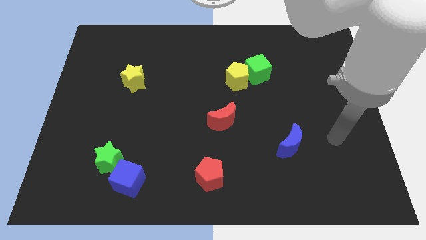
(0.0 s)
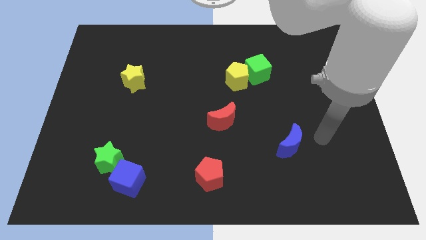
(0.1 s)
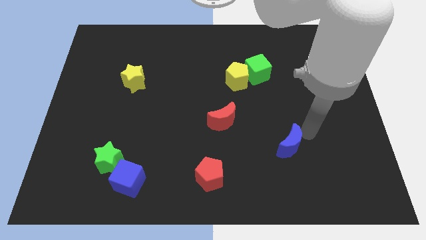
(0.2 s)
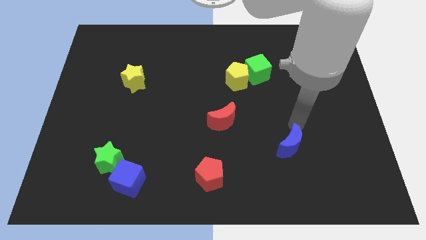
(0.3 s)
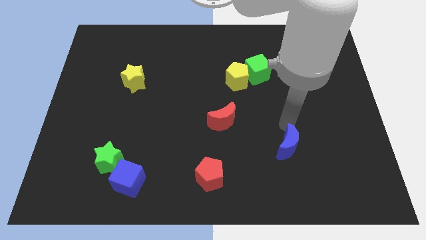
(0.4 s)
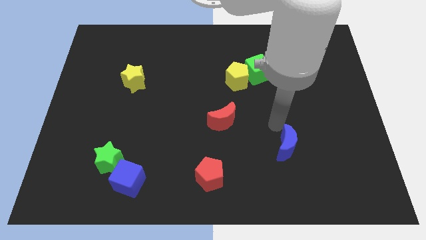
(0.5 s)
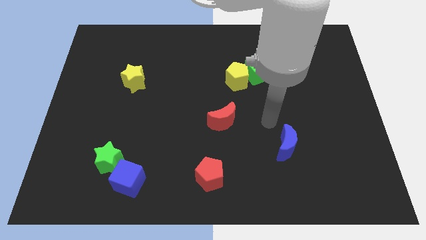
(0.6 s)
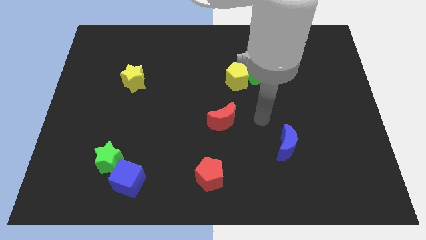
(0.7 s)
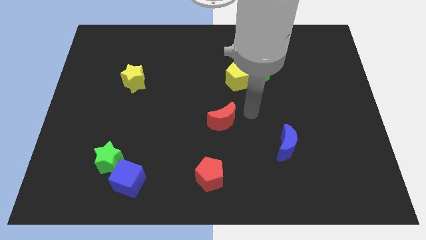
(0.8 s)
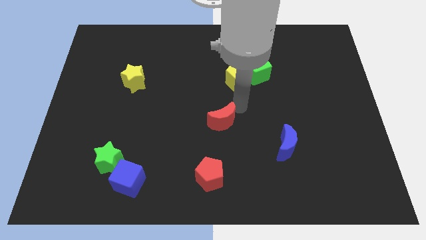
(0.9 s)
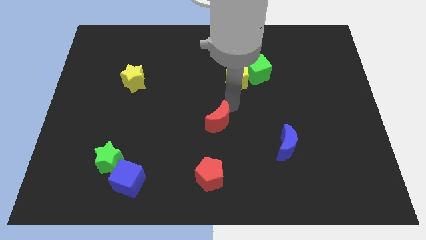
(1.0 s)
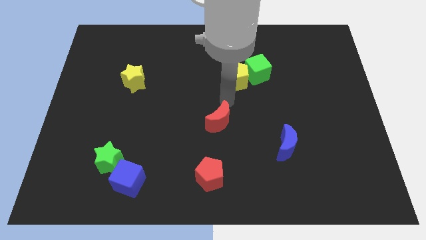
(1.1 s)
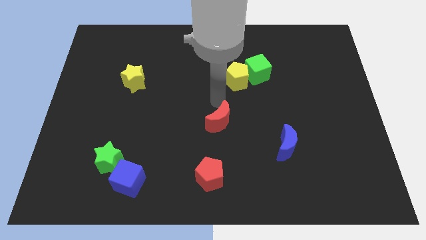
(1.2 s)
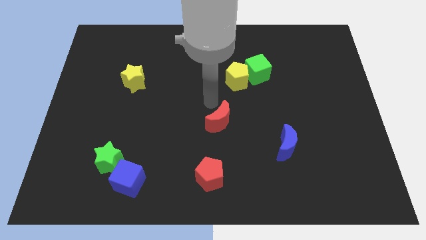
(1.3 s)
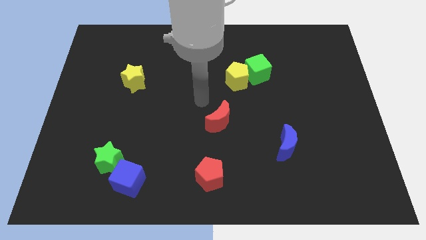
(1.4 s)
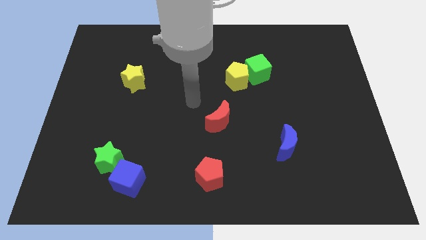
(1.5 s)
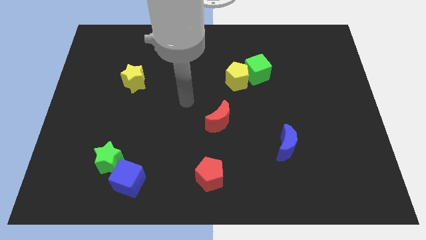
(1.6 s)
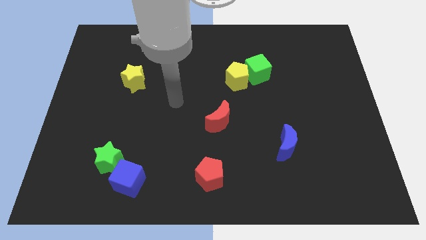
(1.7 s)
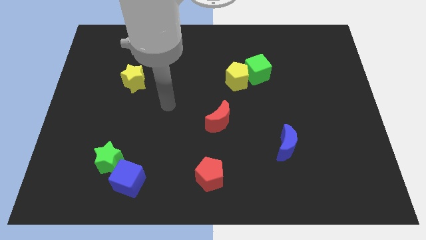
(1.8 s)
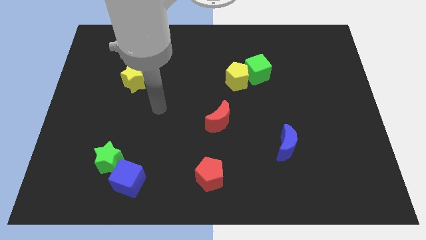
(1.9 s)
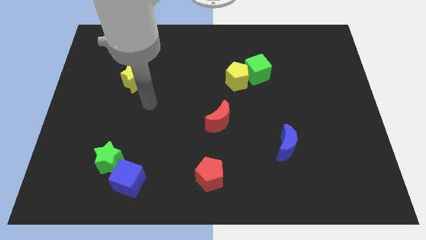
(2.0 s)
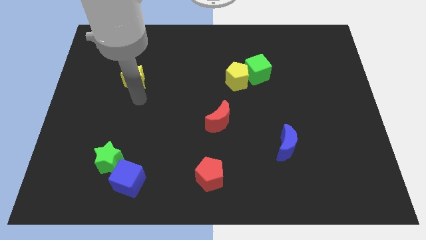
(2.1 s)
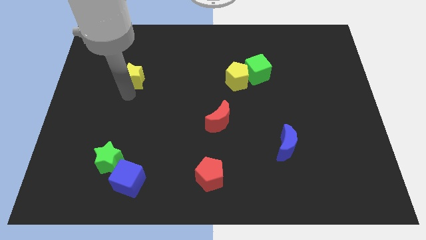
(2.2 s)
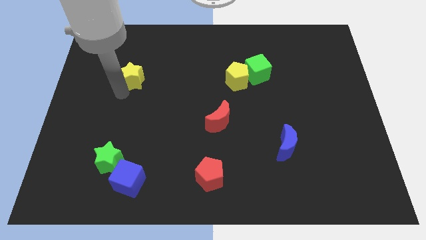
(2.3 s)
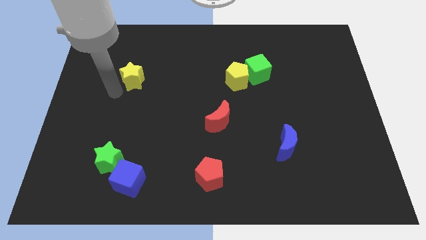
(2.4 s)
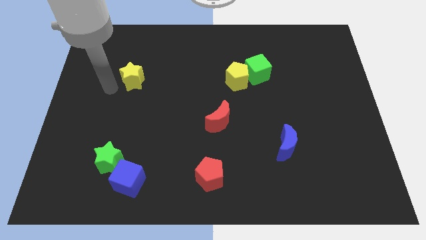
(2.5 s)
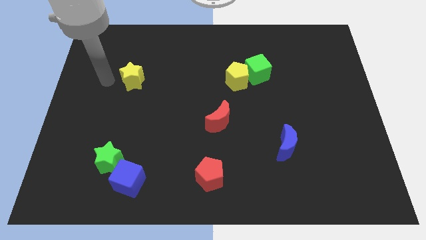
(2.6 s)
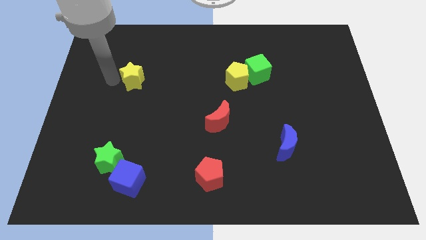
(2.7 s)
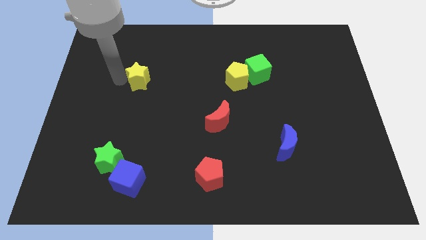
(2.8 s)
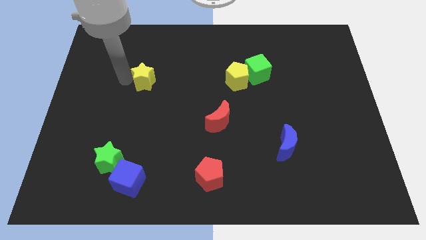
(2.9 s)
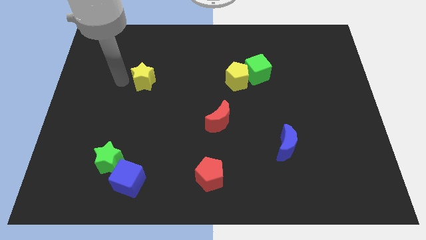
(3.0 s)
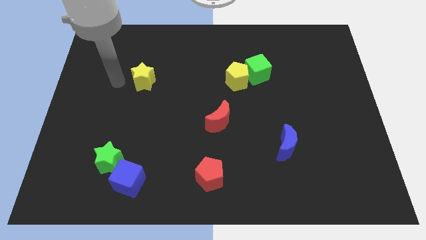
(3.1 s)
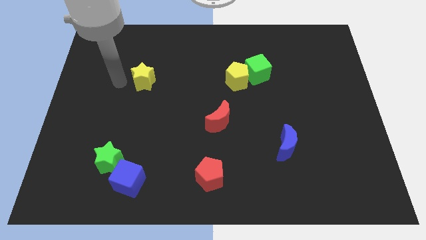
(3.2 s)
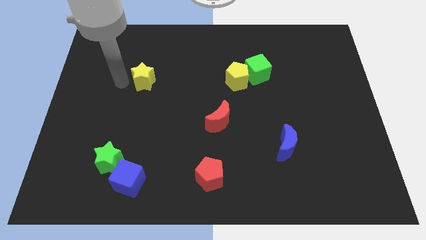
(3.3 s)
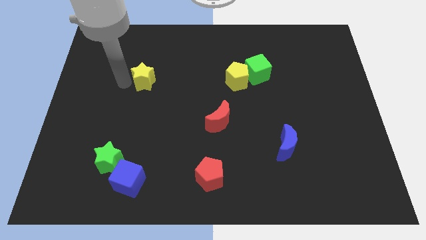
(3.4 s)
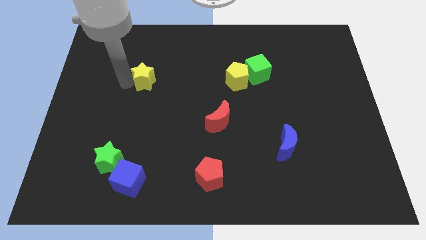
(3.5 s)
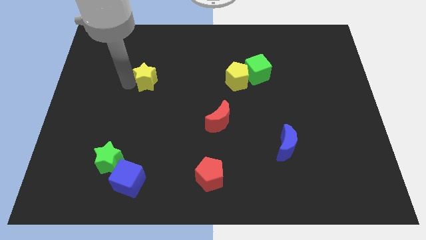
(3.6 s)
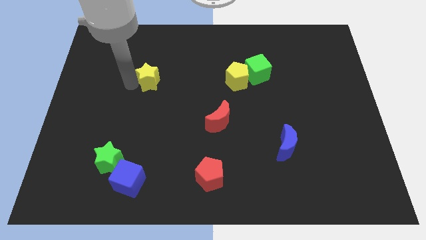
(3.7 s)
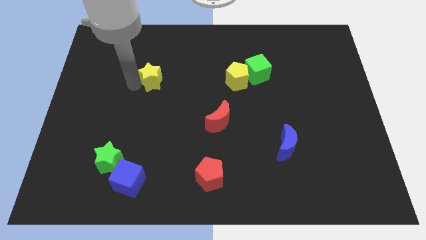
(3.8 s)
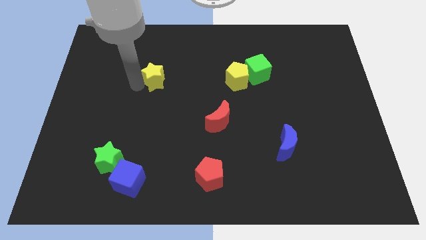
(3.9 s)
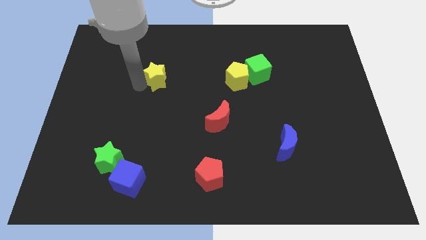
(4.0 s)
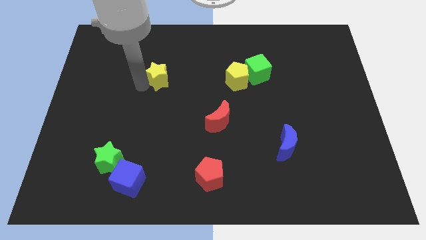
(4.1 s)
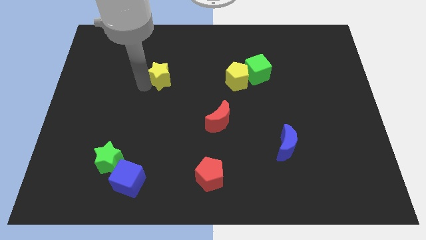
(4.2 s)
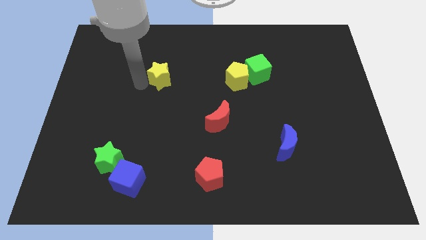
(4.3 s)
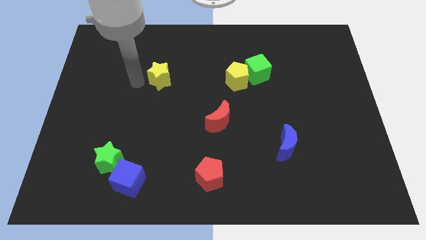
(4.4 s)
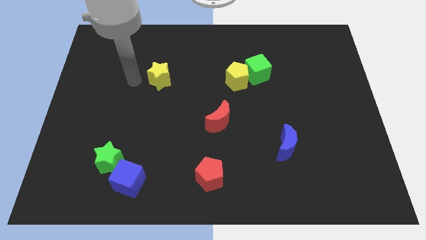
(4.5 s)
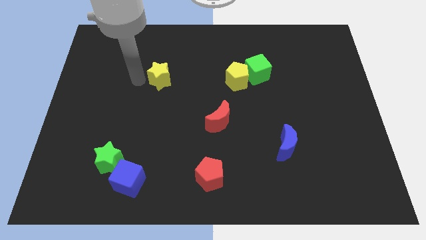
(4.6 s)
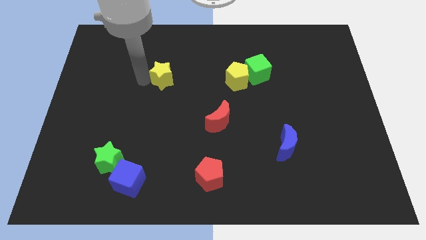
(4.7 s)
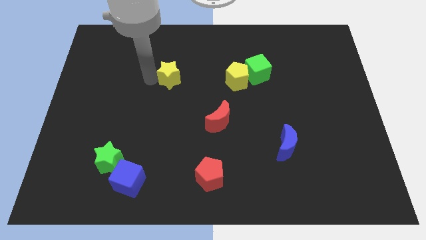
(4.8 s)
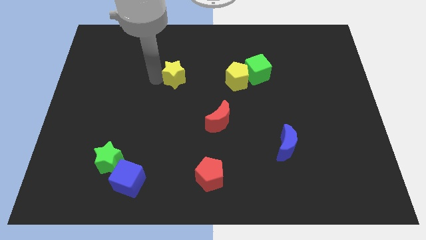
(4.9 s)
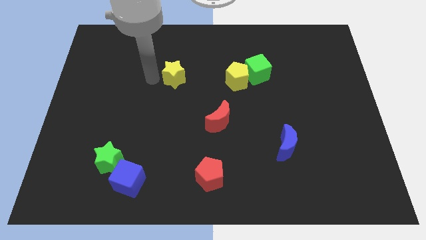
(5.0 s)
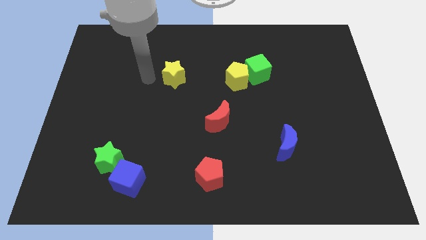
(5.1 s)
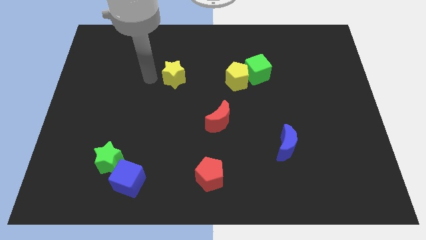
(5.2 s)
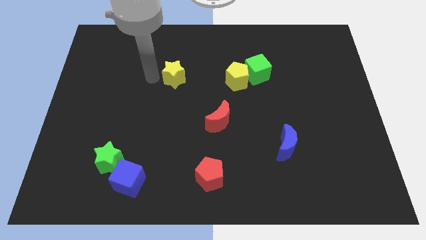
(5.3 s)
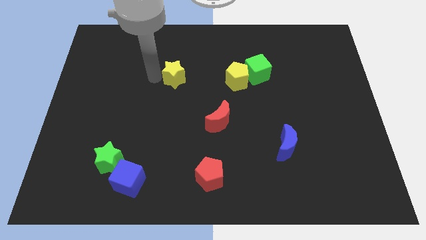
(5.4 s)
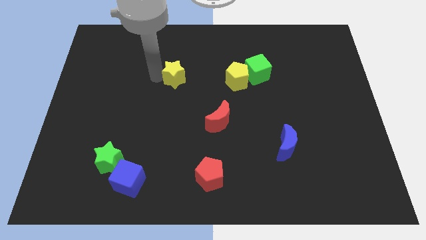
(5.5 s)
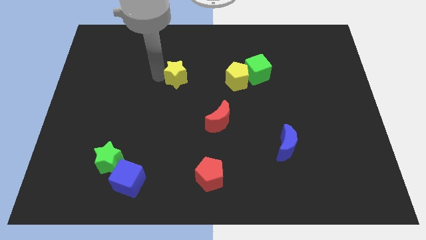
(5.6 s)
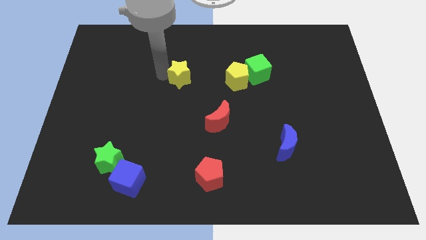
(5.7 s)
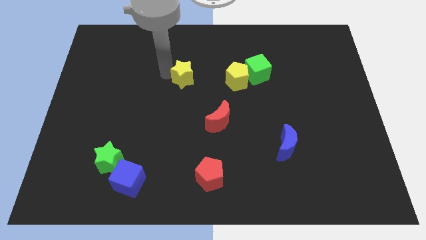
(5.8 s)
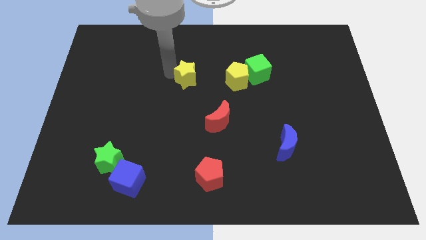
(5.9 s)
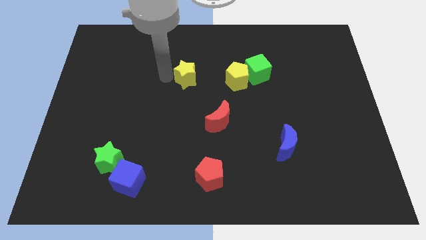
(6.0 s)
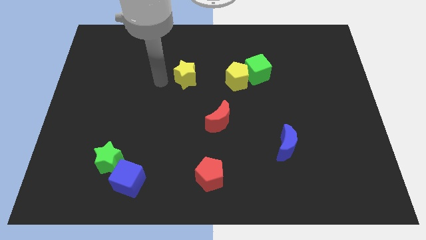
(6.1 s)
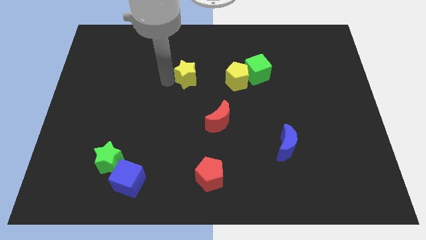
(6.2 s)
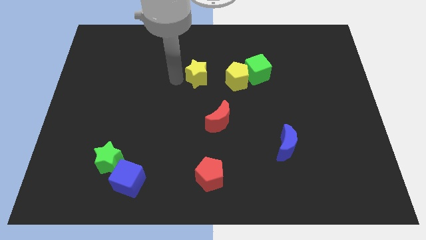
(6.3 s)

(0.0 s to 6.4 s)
slide the yellow star left of the green cube
